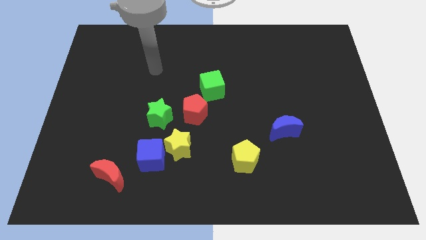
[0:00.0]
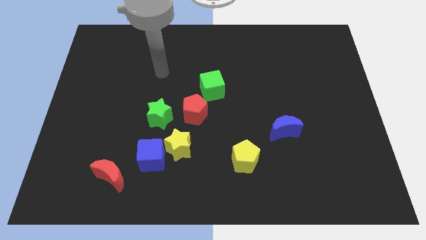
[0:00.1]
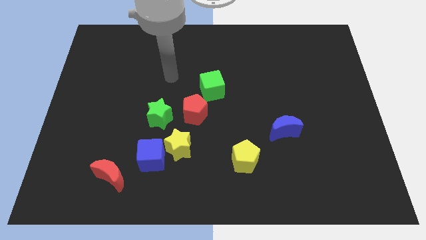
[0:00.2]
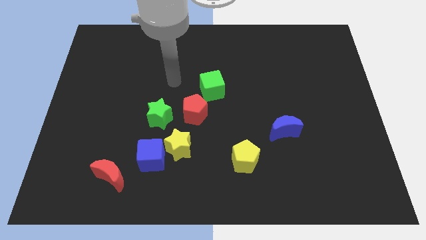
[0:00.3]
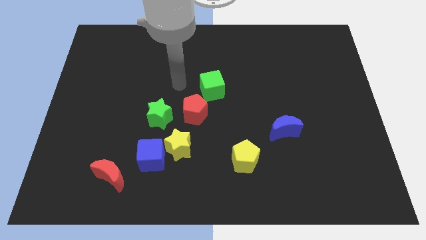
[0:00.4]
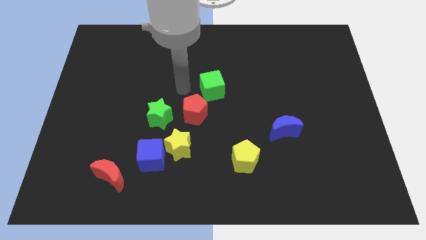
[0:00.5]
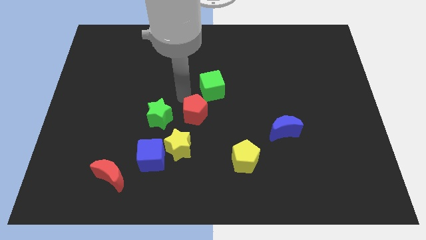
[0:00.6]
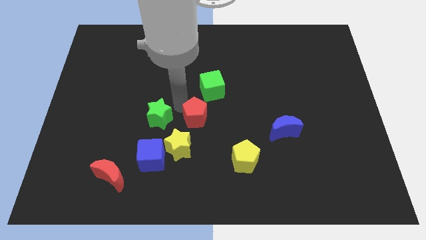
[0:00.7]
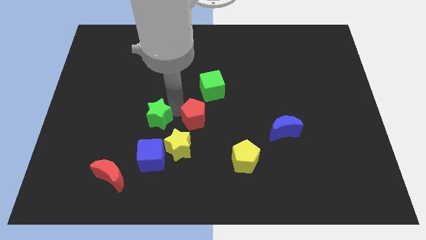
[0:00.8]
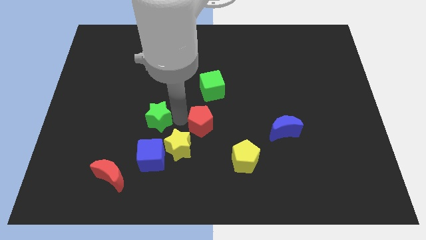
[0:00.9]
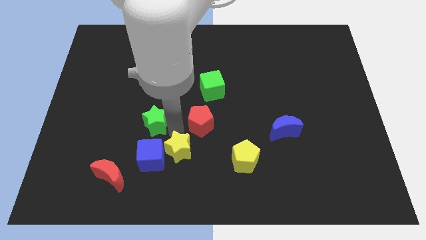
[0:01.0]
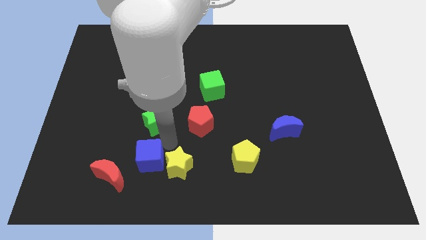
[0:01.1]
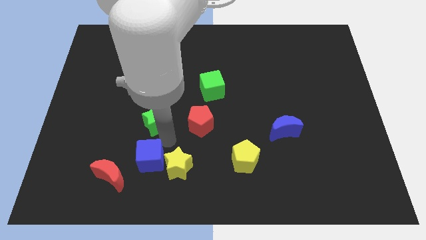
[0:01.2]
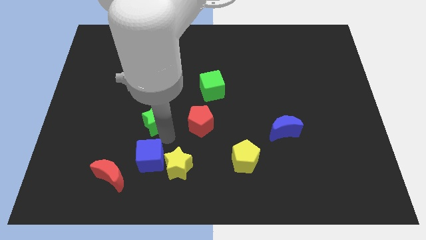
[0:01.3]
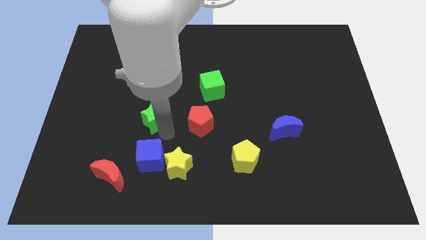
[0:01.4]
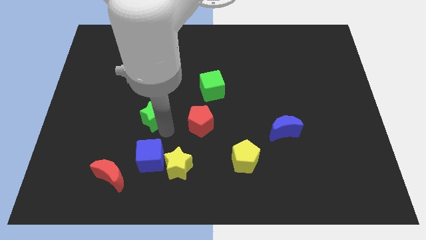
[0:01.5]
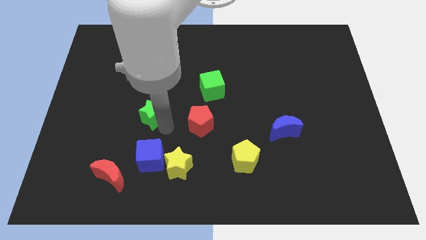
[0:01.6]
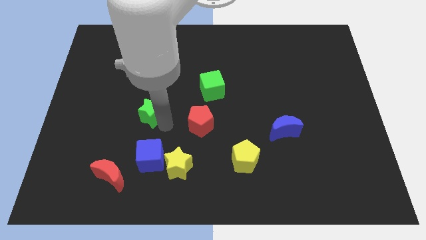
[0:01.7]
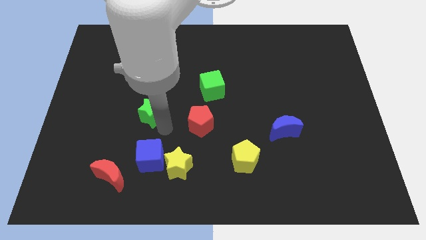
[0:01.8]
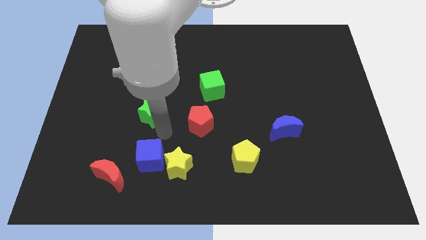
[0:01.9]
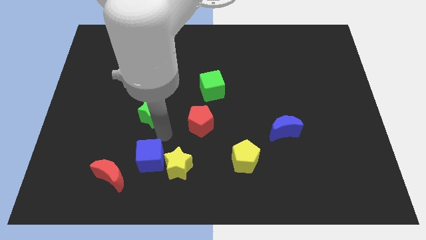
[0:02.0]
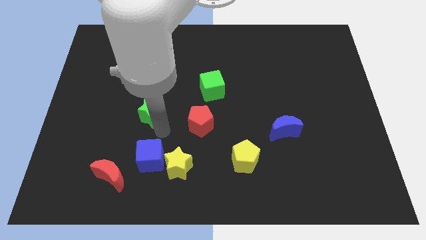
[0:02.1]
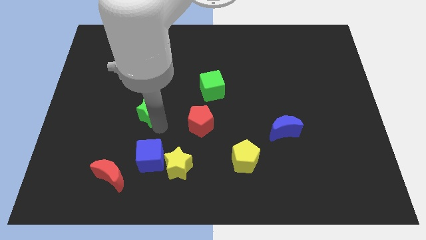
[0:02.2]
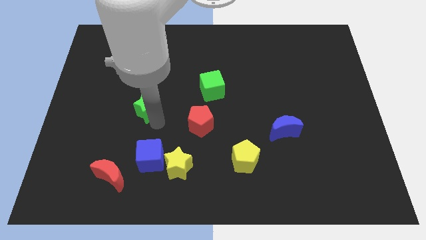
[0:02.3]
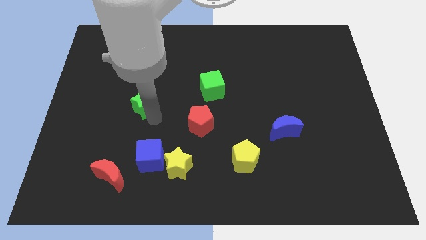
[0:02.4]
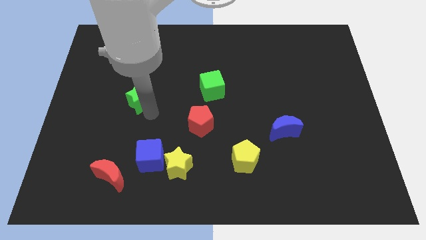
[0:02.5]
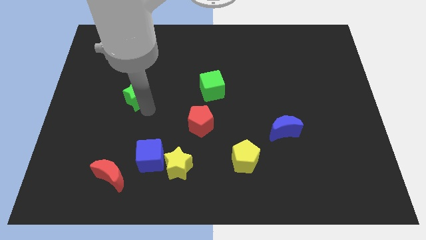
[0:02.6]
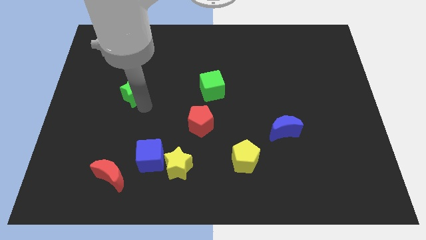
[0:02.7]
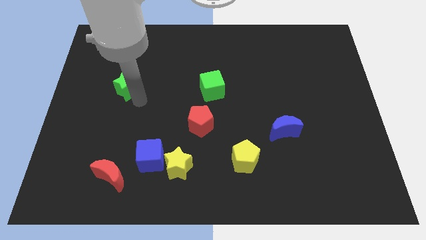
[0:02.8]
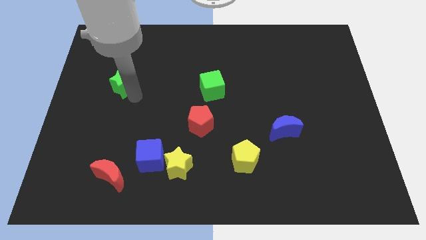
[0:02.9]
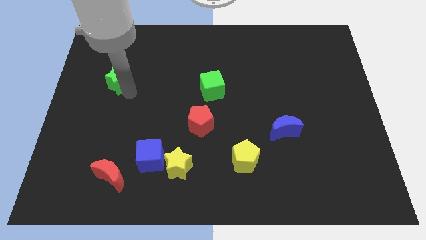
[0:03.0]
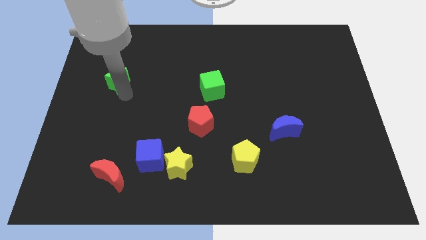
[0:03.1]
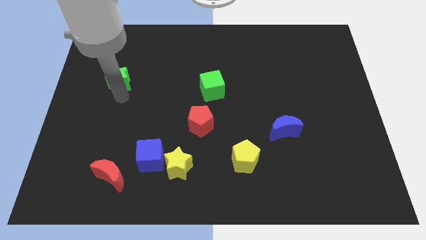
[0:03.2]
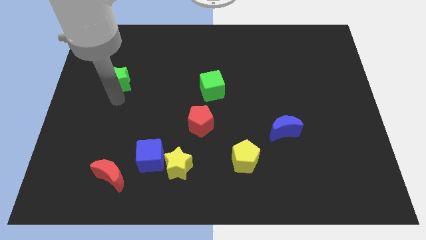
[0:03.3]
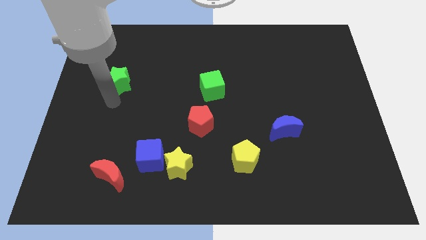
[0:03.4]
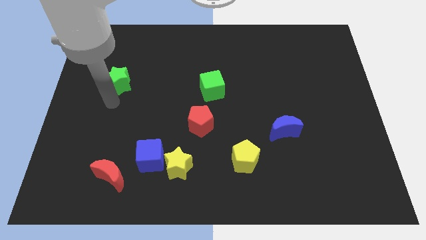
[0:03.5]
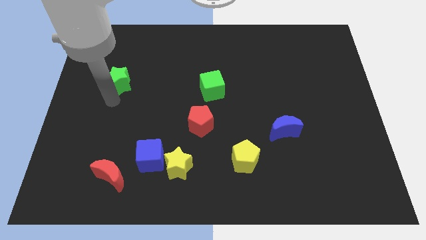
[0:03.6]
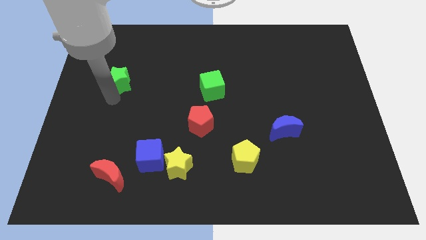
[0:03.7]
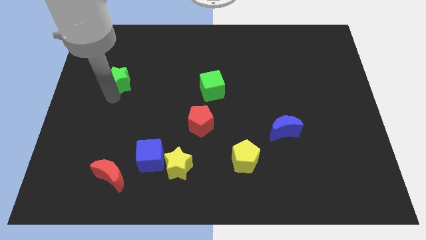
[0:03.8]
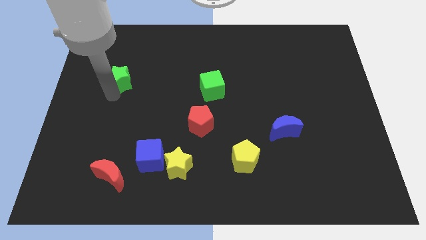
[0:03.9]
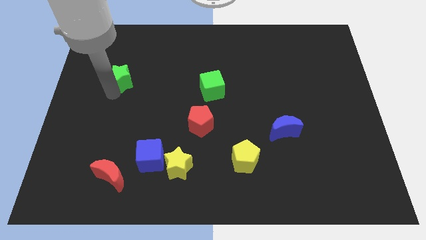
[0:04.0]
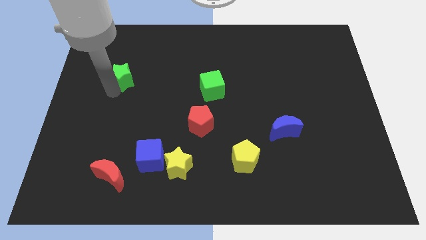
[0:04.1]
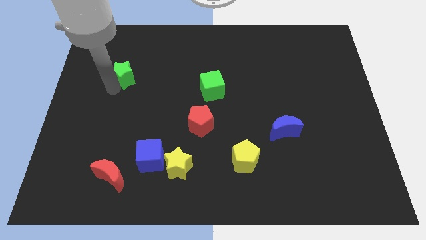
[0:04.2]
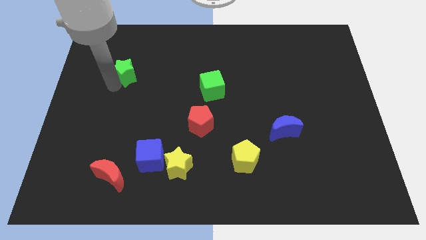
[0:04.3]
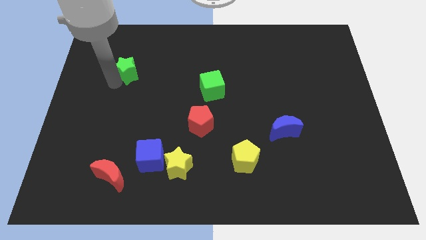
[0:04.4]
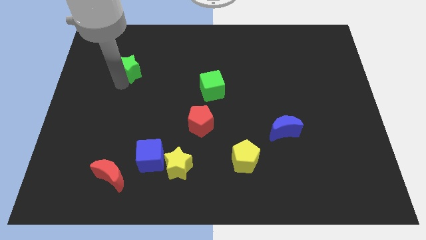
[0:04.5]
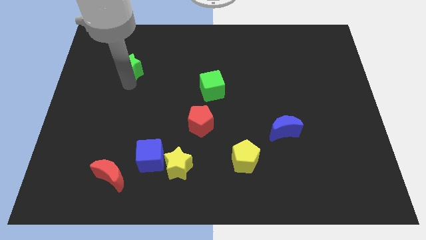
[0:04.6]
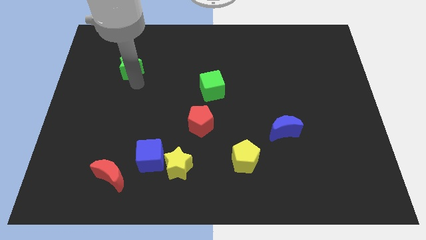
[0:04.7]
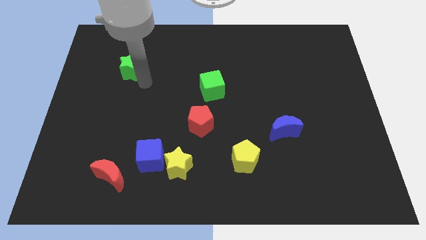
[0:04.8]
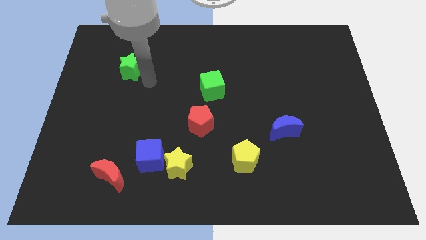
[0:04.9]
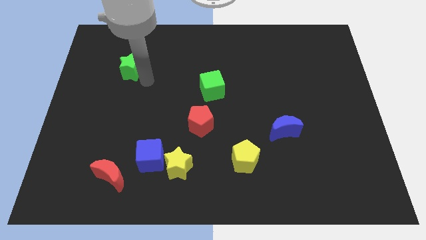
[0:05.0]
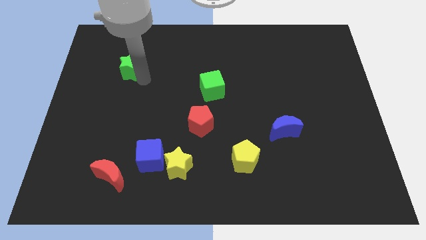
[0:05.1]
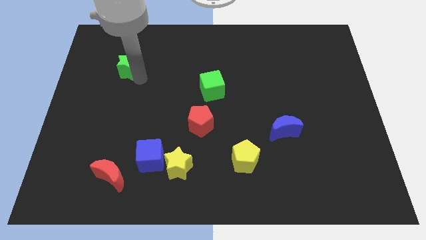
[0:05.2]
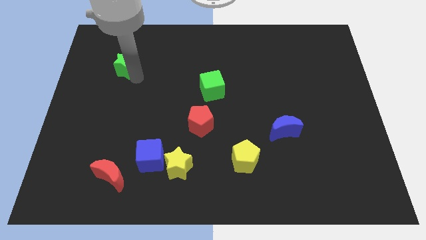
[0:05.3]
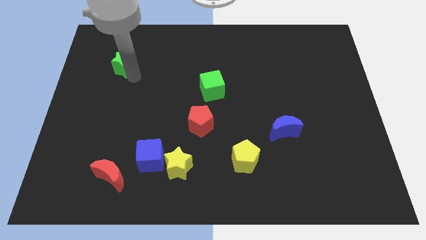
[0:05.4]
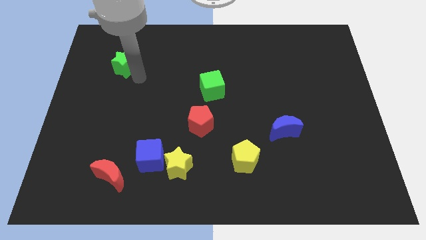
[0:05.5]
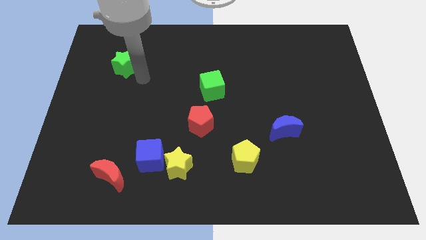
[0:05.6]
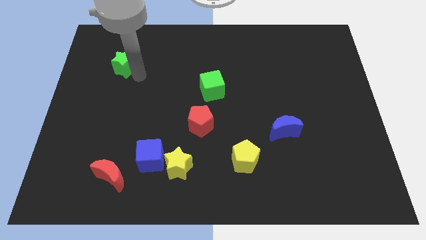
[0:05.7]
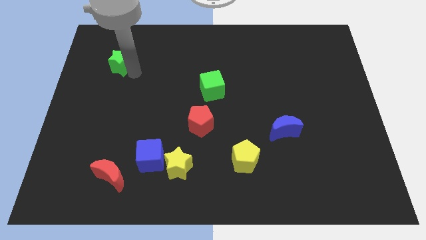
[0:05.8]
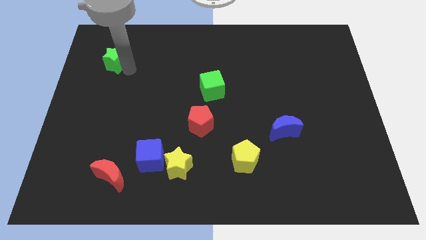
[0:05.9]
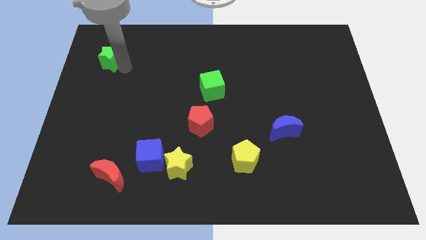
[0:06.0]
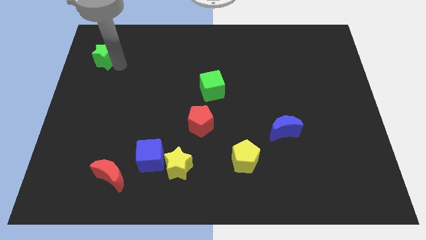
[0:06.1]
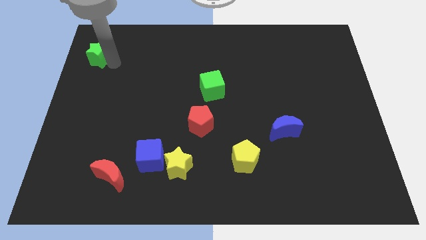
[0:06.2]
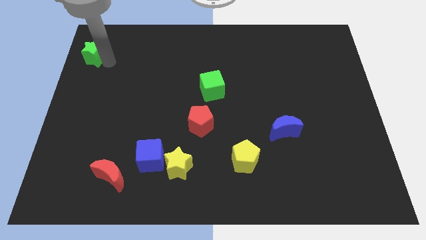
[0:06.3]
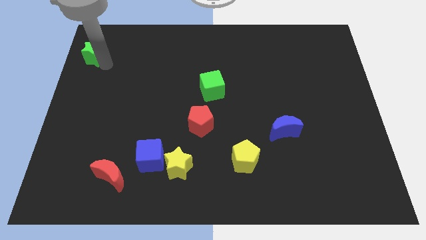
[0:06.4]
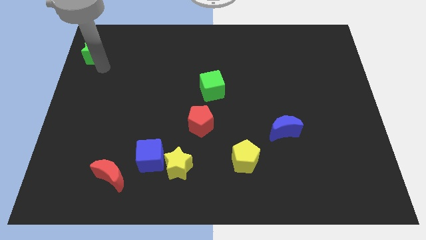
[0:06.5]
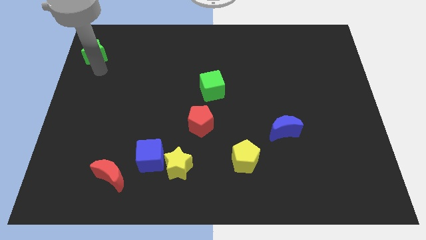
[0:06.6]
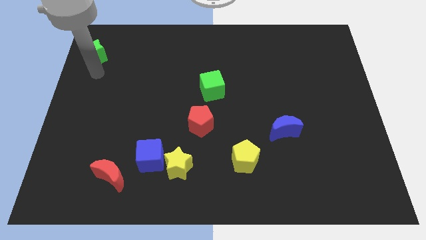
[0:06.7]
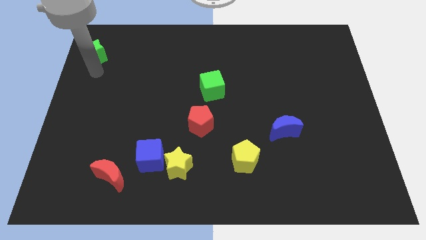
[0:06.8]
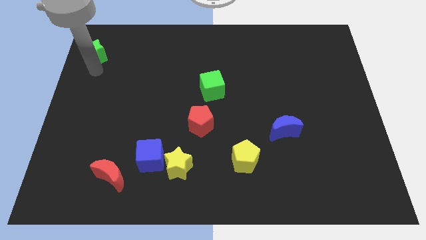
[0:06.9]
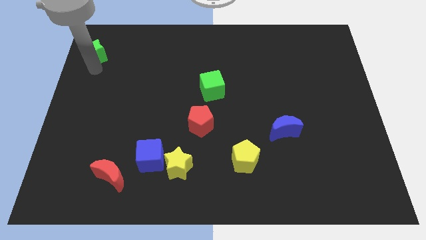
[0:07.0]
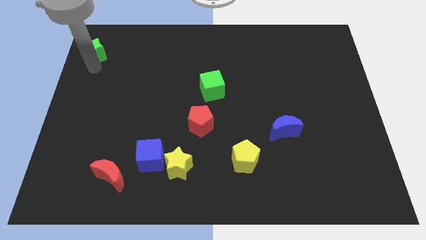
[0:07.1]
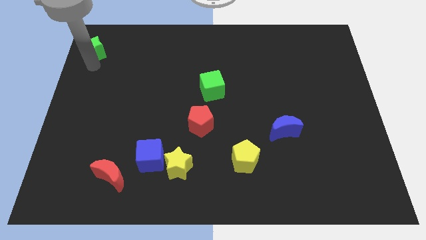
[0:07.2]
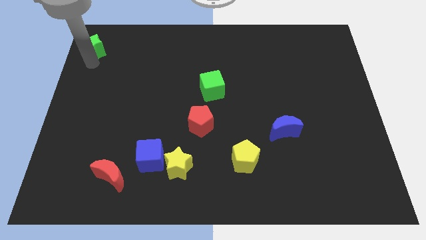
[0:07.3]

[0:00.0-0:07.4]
move the green star to the top left
